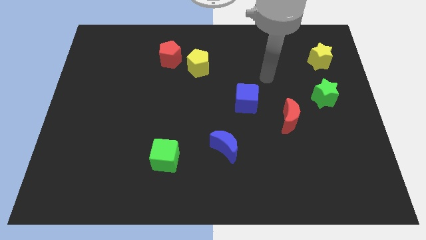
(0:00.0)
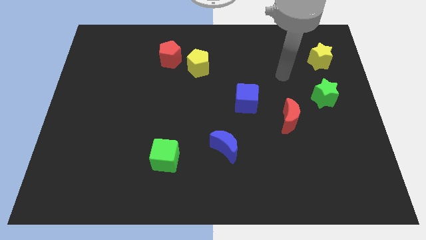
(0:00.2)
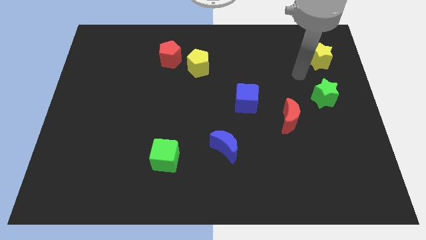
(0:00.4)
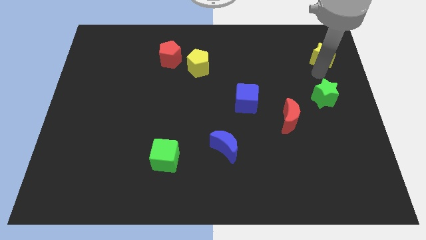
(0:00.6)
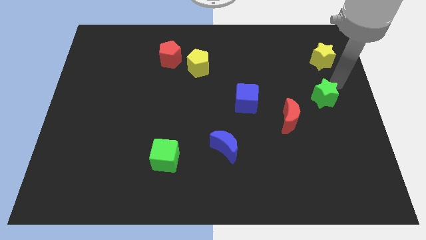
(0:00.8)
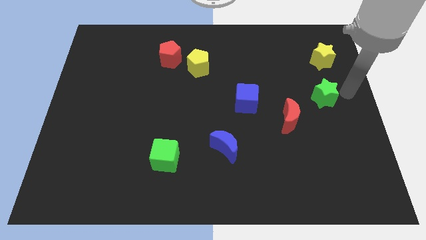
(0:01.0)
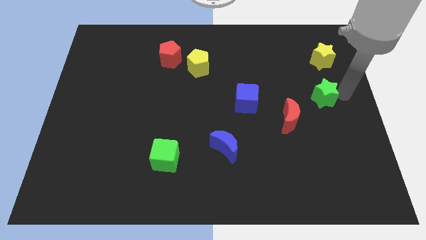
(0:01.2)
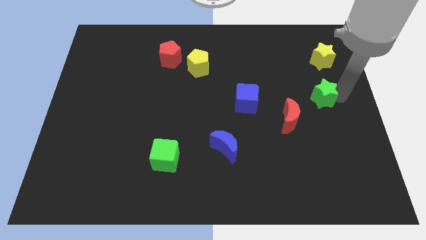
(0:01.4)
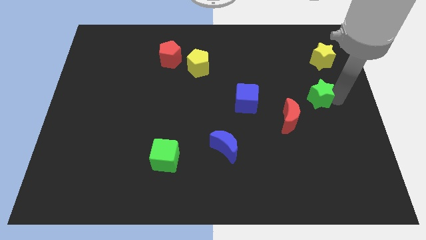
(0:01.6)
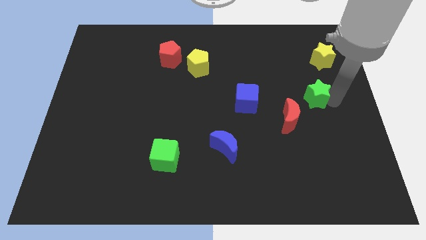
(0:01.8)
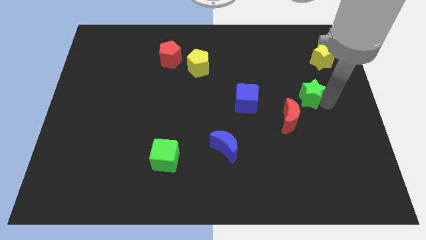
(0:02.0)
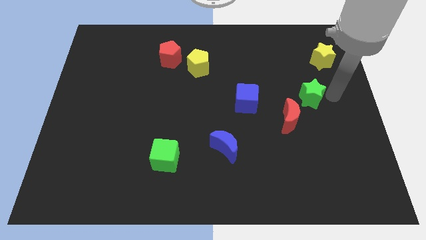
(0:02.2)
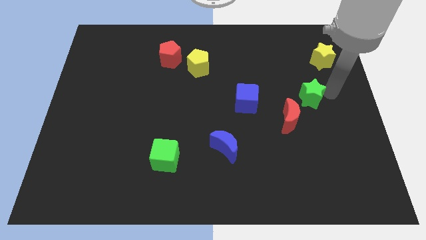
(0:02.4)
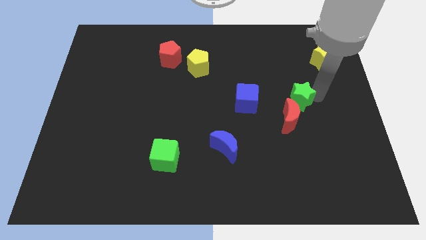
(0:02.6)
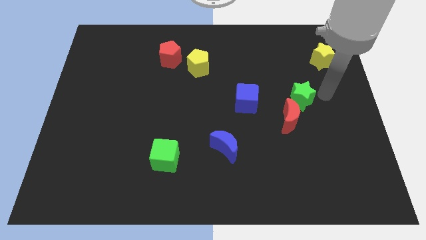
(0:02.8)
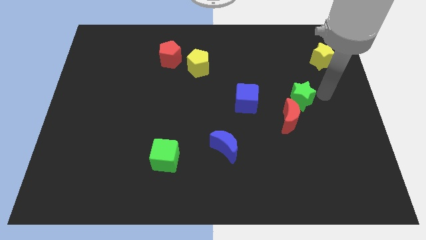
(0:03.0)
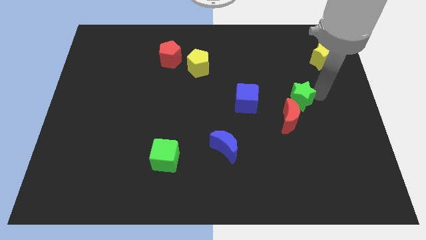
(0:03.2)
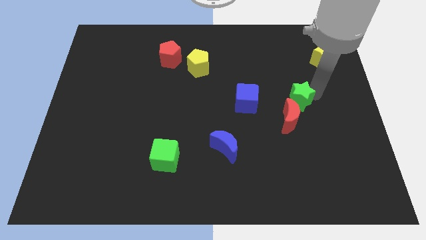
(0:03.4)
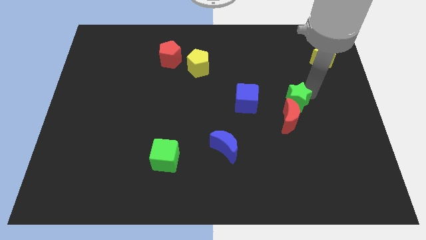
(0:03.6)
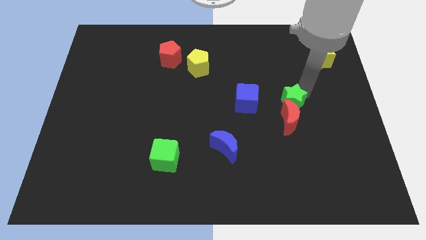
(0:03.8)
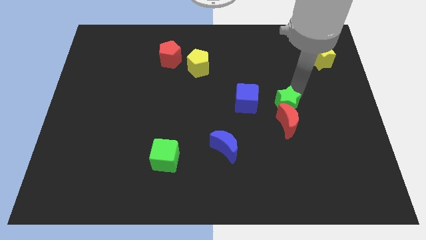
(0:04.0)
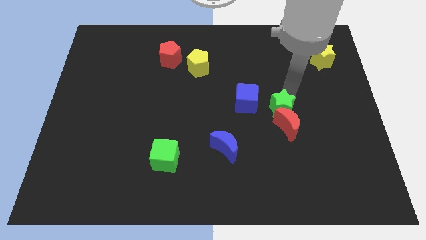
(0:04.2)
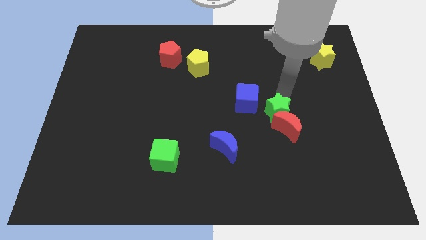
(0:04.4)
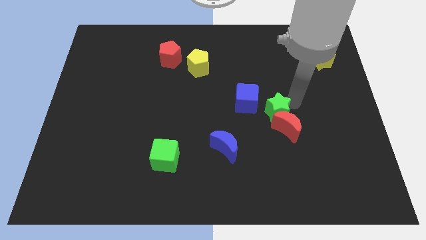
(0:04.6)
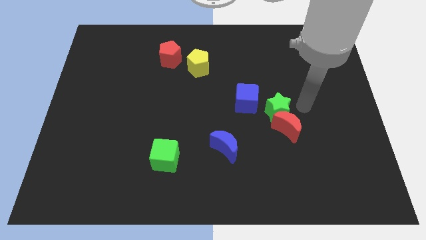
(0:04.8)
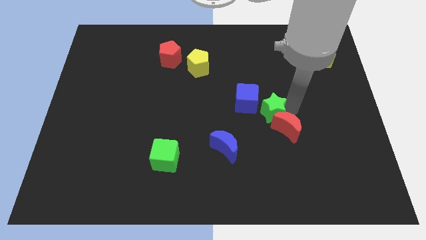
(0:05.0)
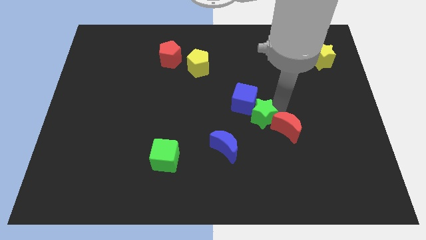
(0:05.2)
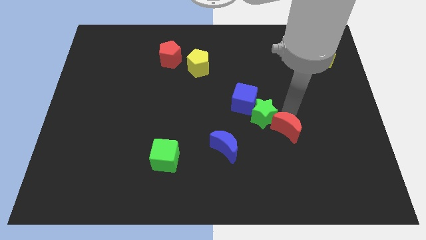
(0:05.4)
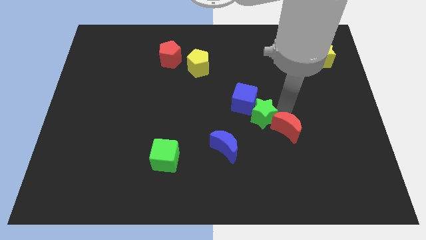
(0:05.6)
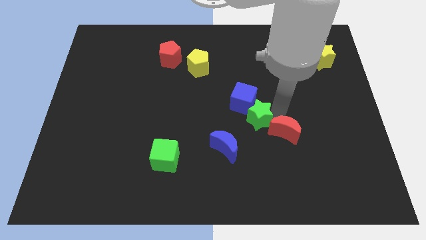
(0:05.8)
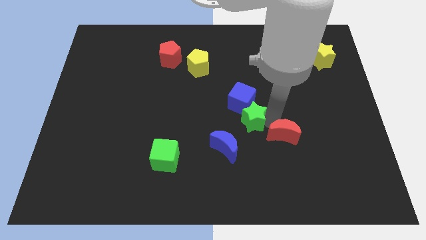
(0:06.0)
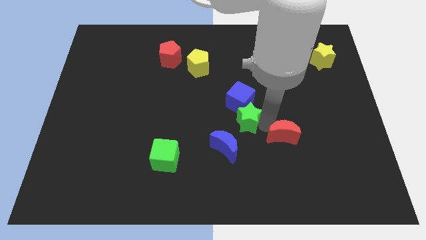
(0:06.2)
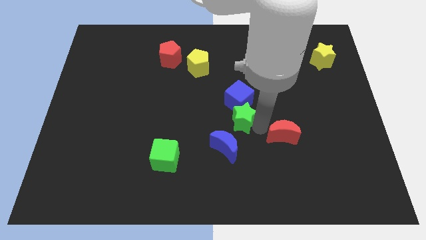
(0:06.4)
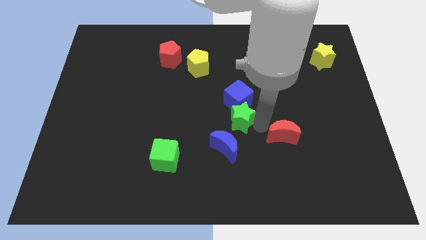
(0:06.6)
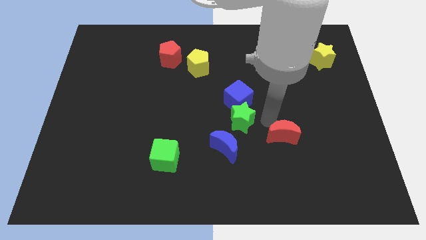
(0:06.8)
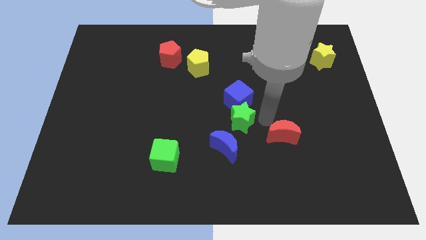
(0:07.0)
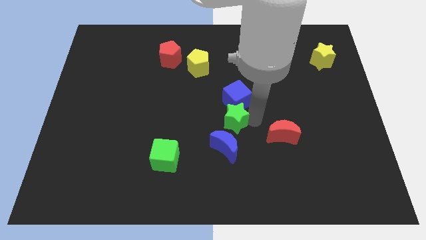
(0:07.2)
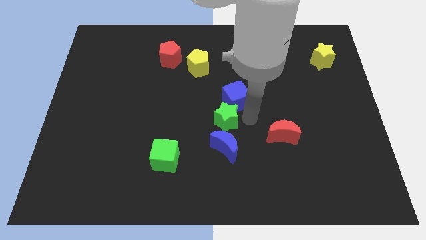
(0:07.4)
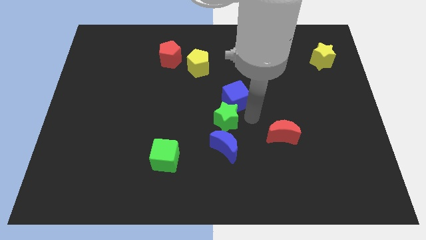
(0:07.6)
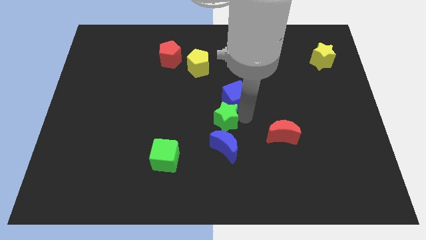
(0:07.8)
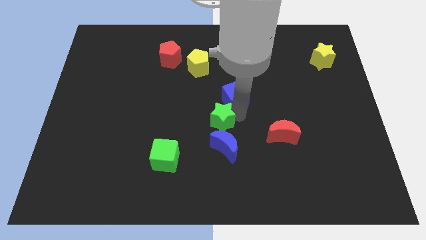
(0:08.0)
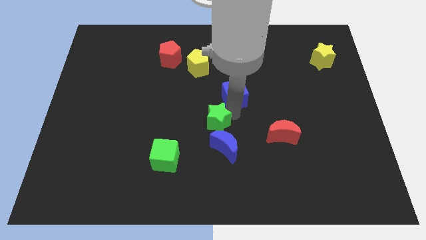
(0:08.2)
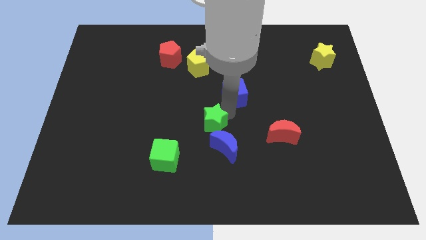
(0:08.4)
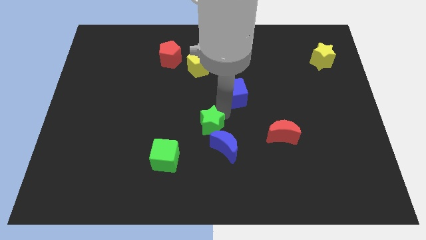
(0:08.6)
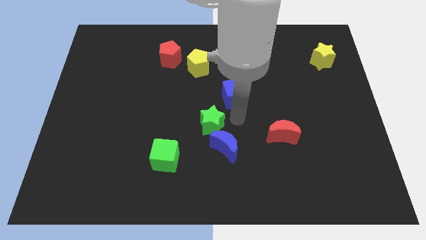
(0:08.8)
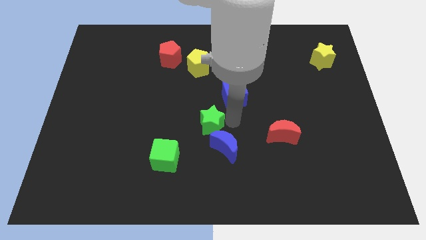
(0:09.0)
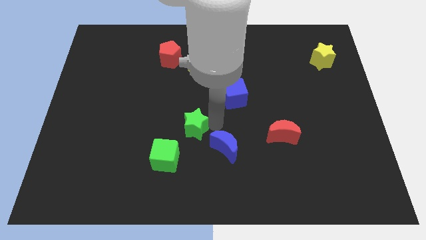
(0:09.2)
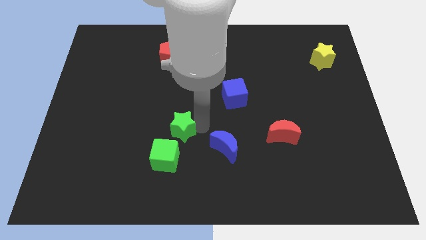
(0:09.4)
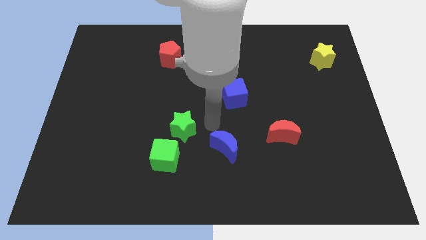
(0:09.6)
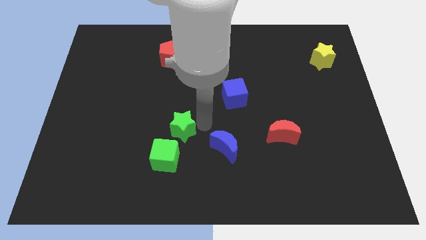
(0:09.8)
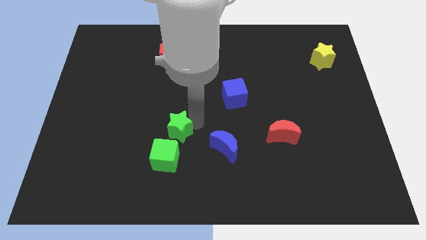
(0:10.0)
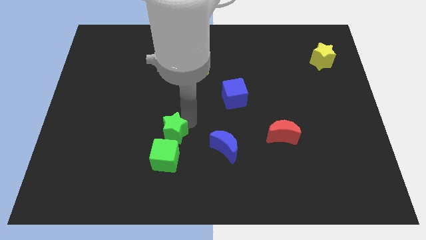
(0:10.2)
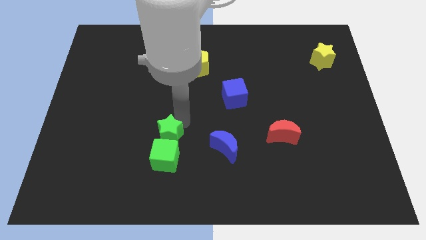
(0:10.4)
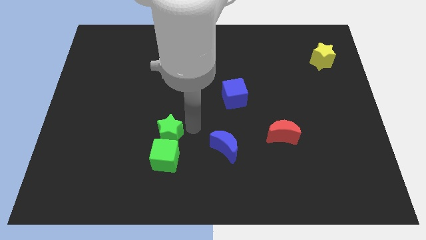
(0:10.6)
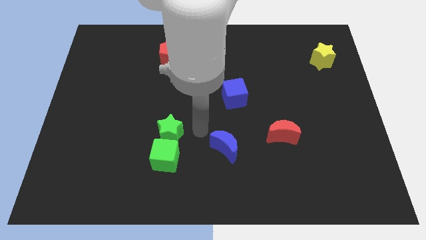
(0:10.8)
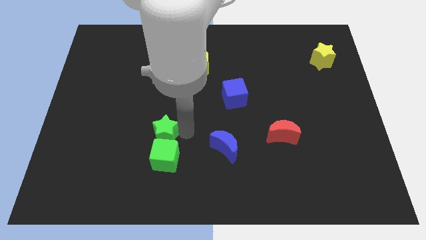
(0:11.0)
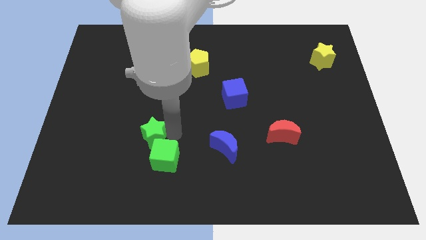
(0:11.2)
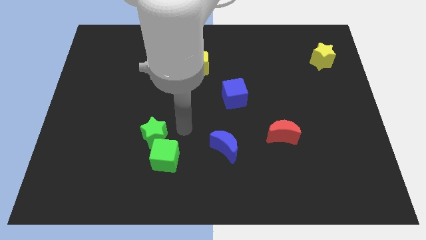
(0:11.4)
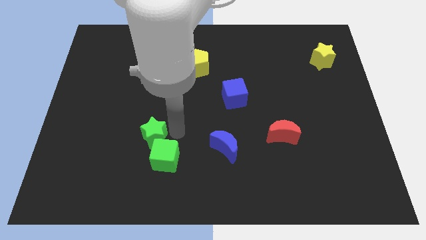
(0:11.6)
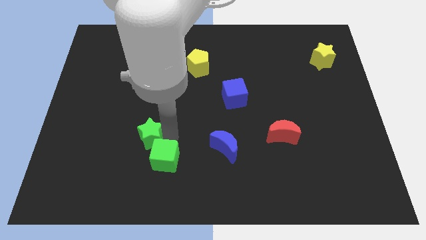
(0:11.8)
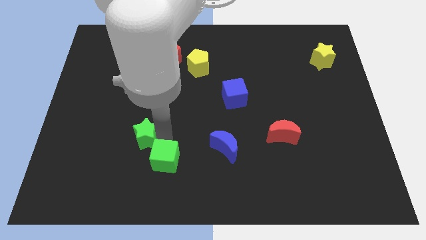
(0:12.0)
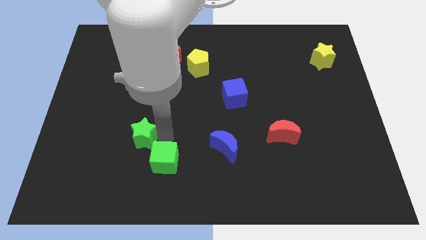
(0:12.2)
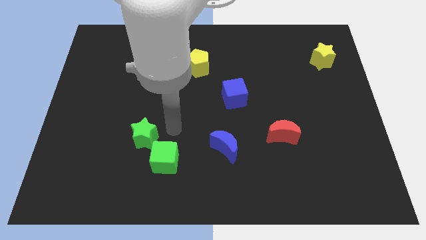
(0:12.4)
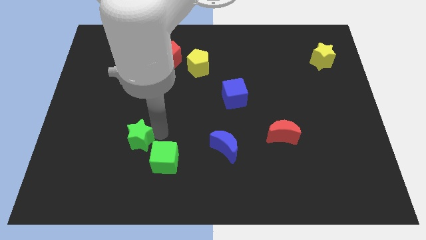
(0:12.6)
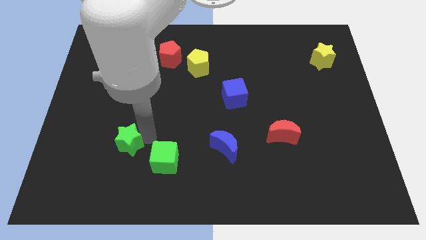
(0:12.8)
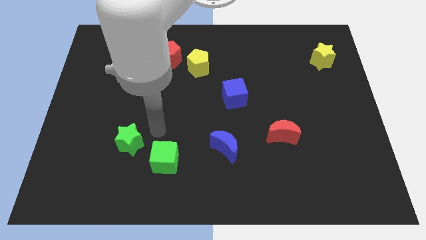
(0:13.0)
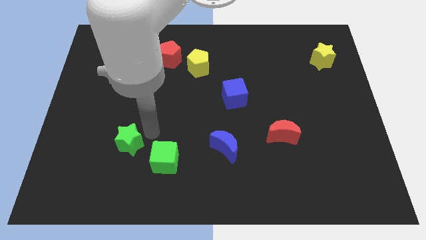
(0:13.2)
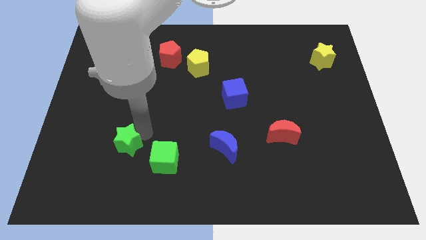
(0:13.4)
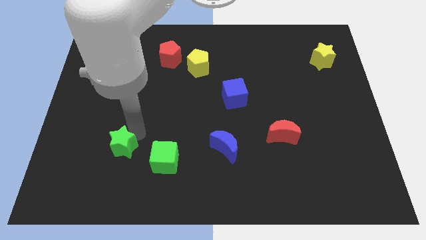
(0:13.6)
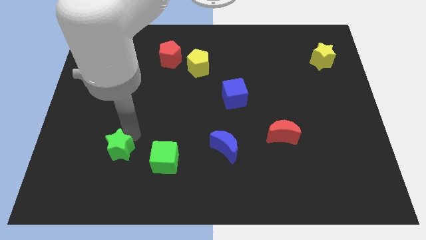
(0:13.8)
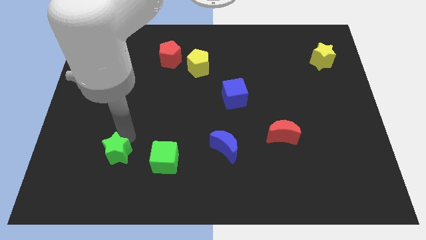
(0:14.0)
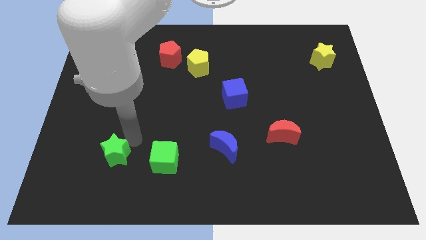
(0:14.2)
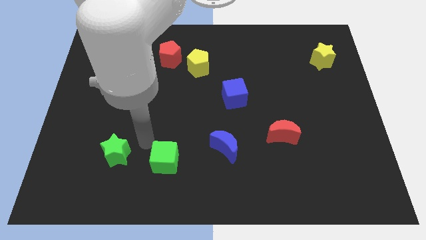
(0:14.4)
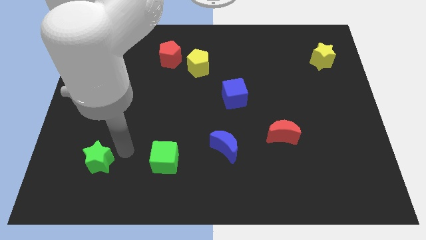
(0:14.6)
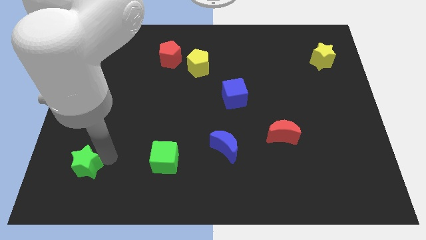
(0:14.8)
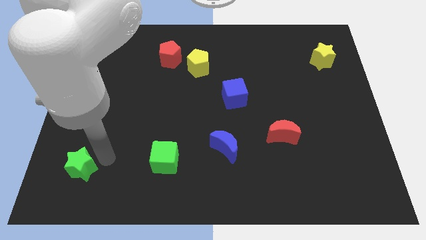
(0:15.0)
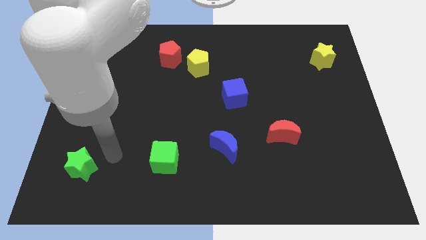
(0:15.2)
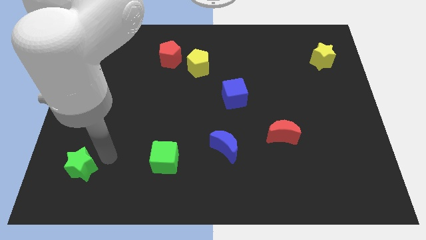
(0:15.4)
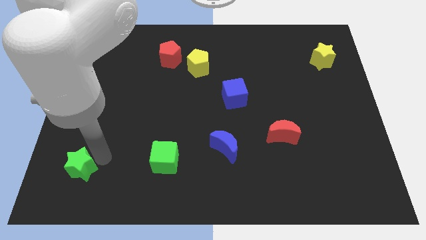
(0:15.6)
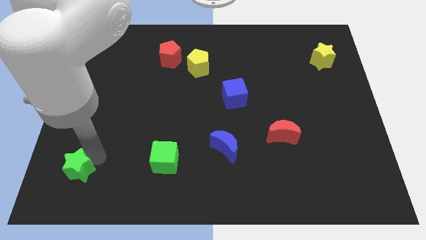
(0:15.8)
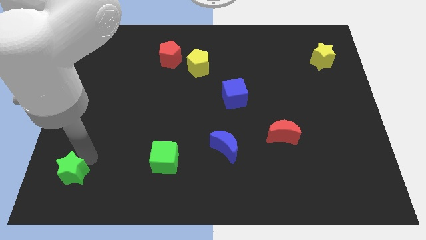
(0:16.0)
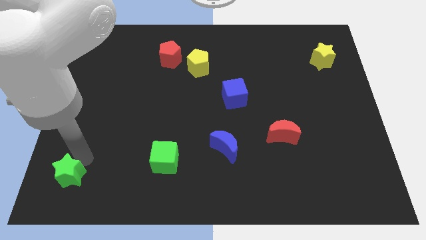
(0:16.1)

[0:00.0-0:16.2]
push the green star to the bottom left corner
